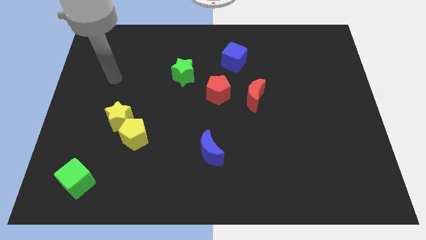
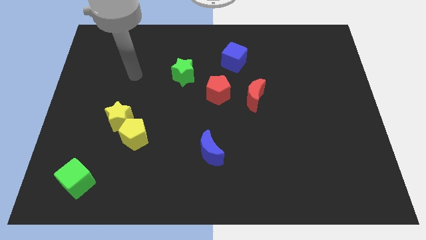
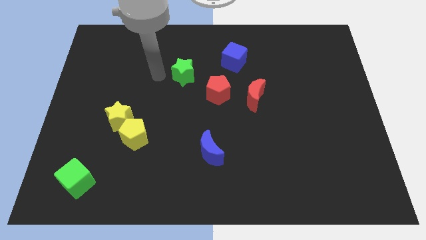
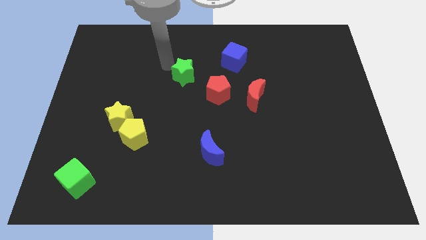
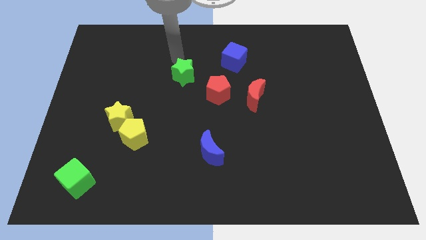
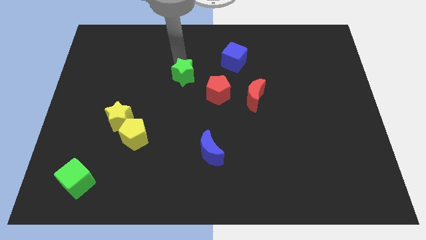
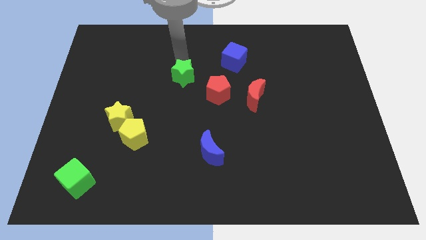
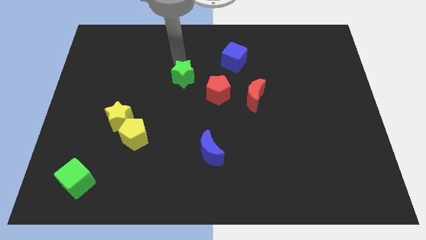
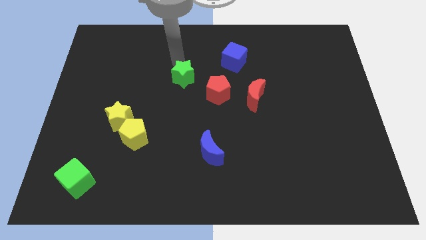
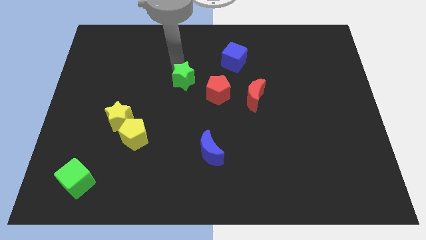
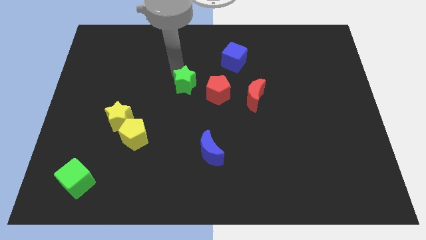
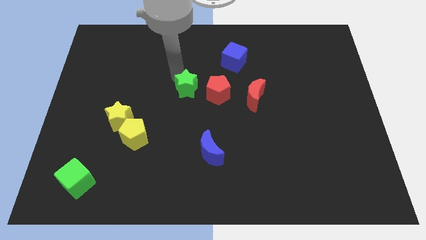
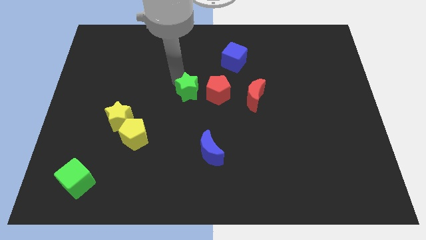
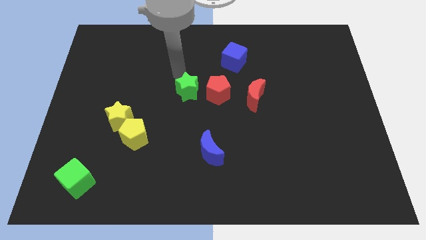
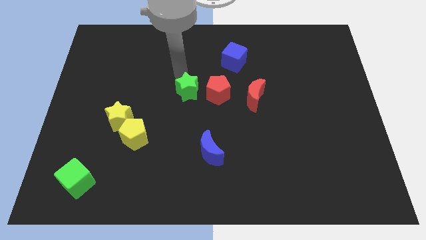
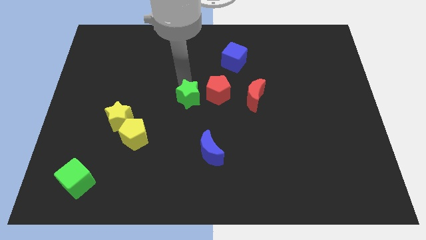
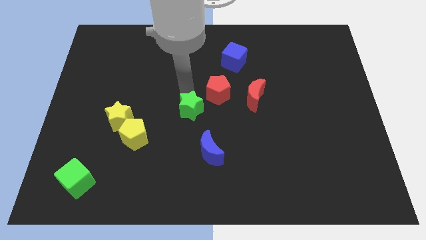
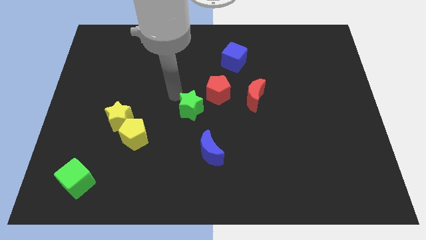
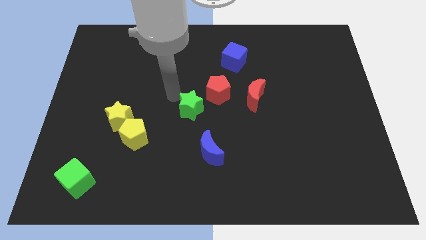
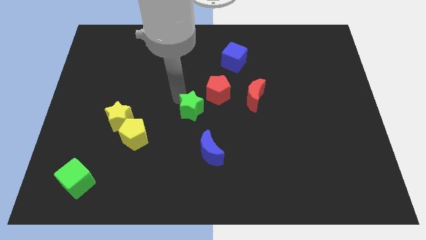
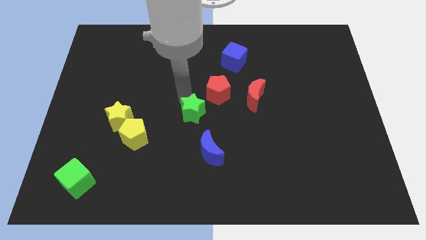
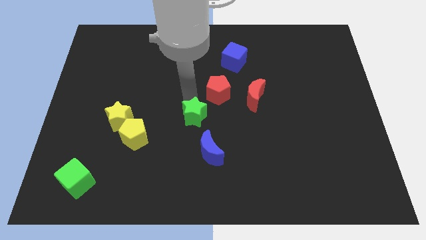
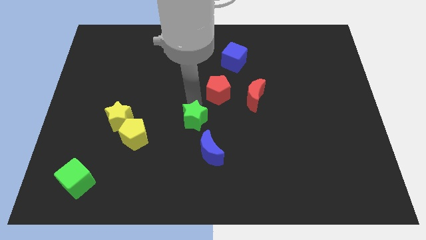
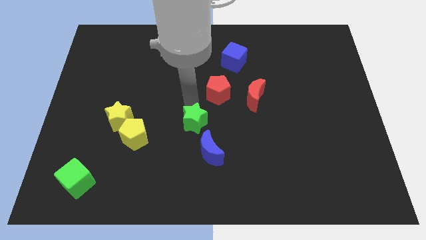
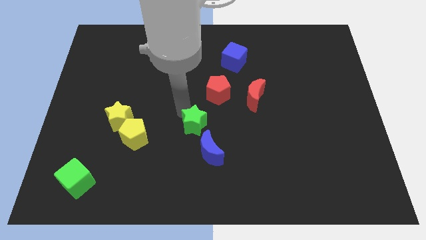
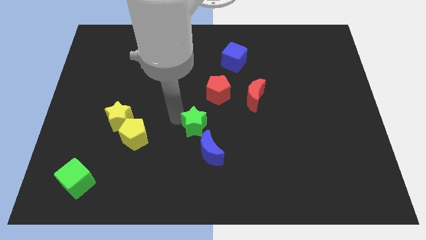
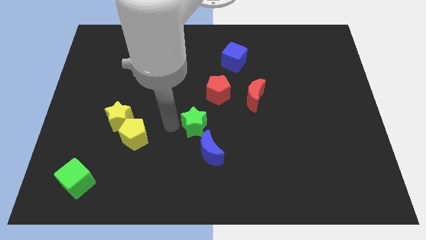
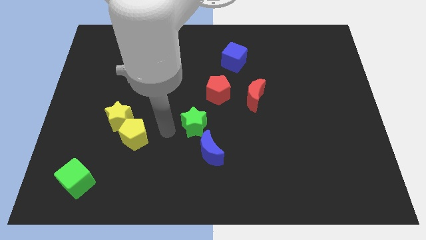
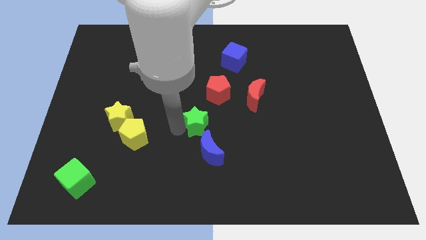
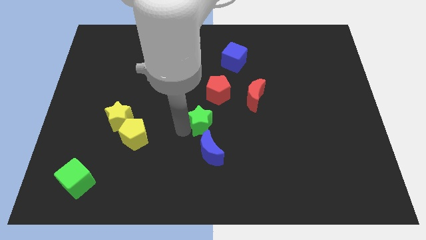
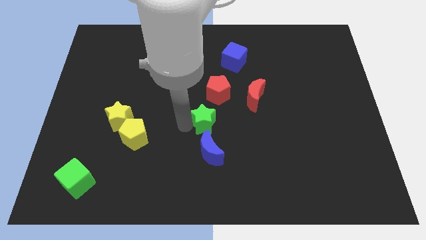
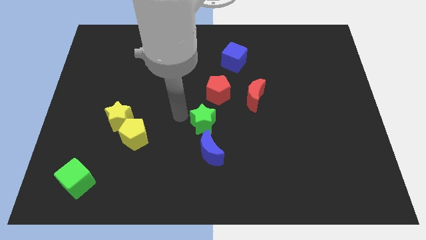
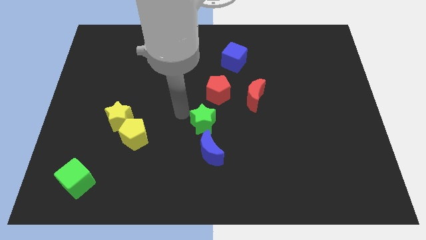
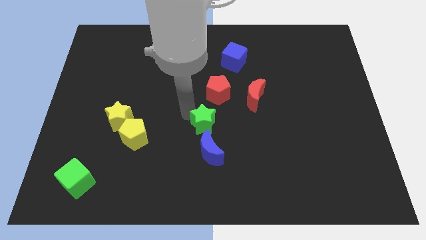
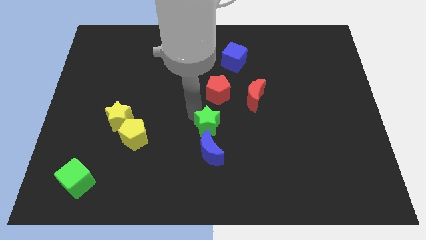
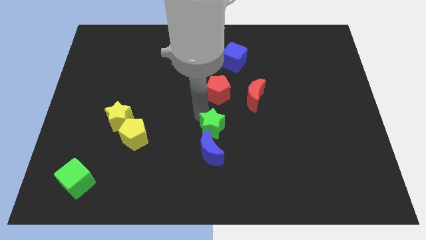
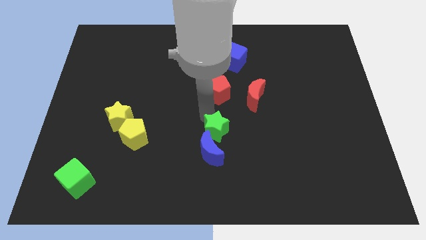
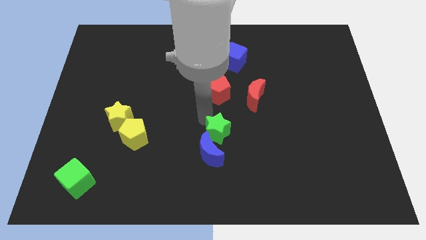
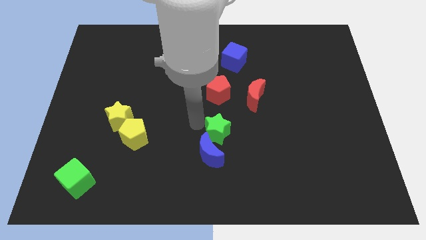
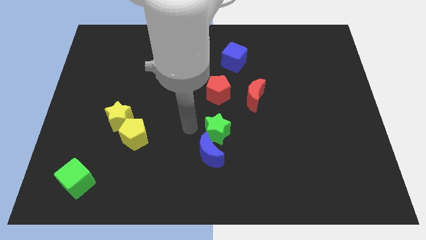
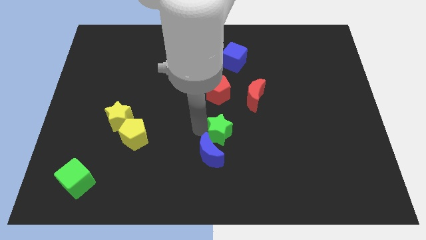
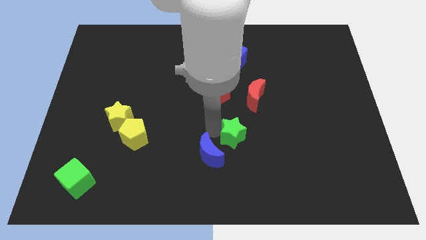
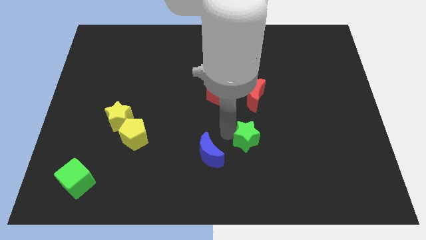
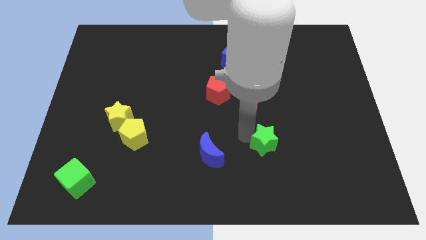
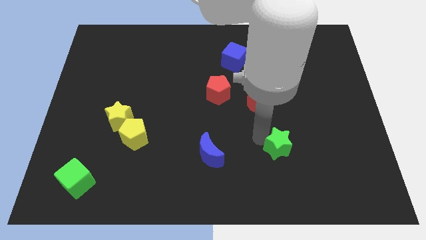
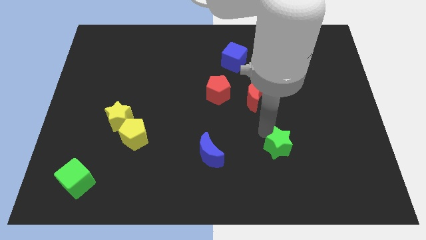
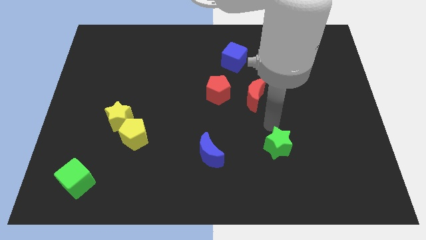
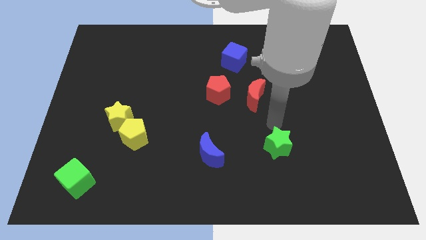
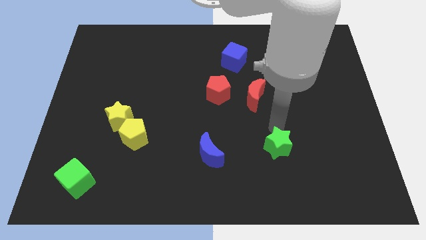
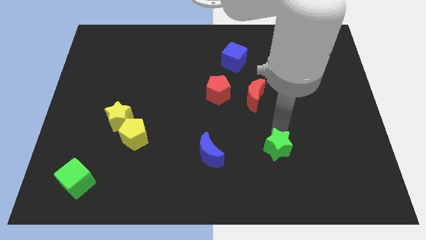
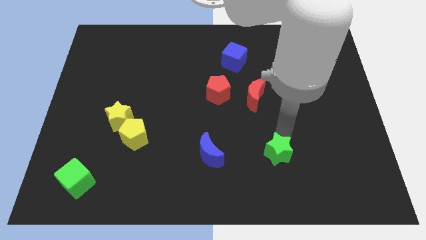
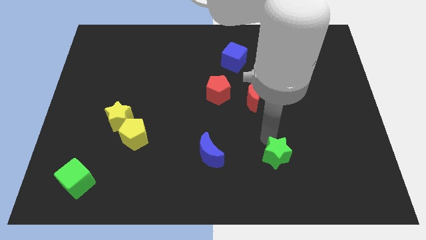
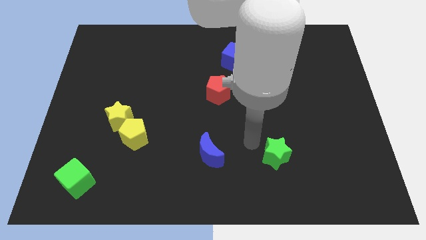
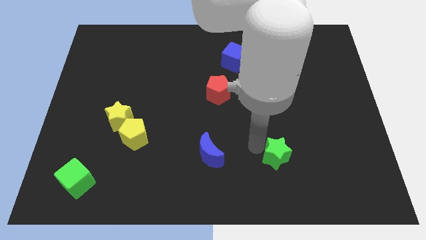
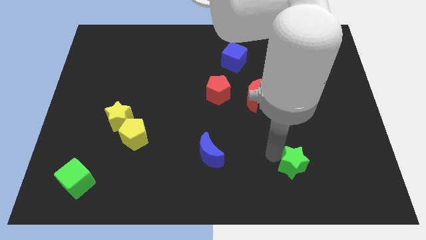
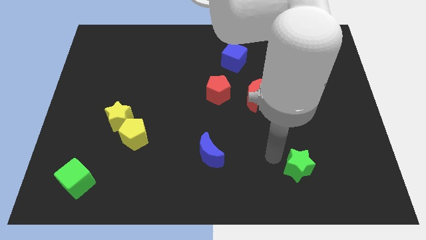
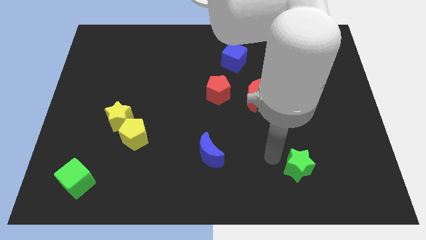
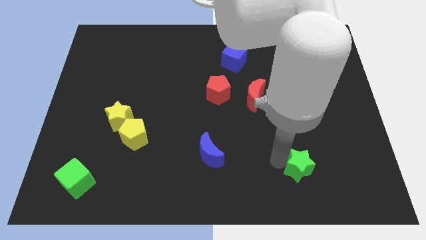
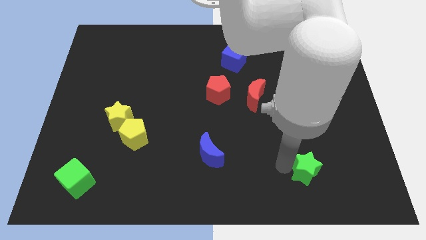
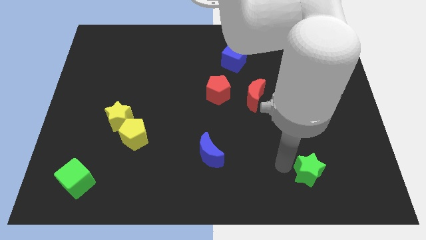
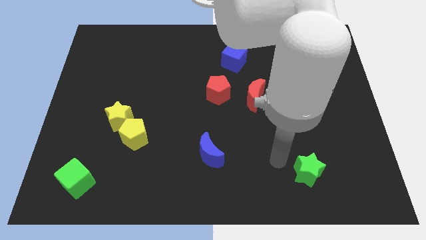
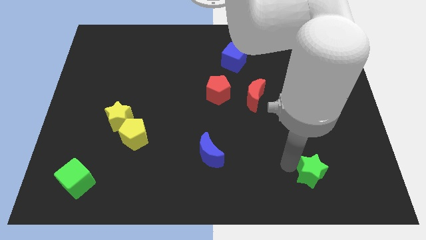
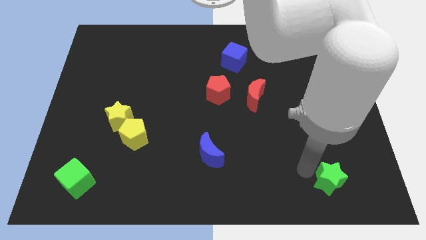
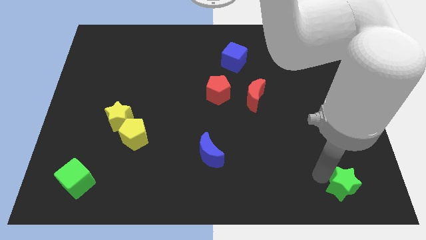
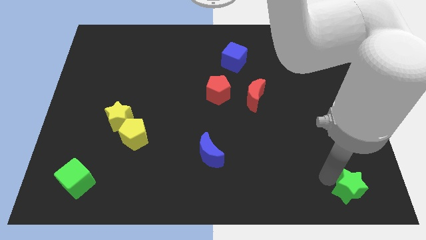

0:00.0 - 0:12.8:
slide the green star to the bottom right corner
